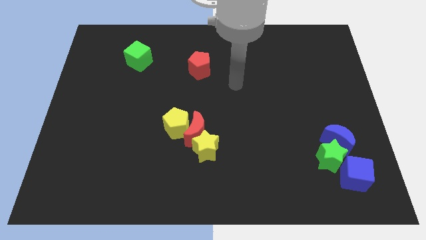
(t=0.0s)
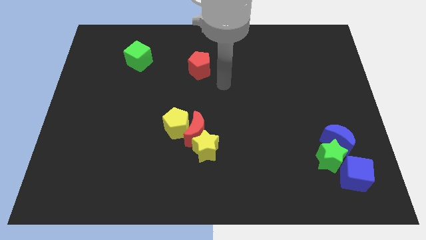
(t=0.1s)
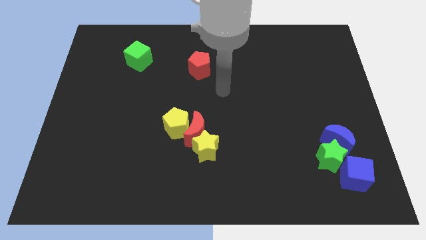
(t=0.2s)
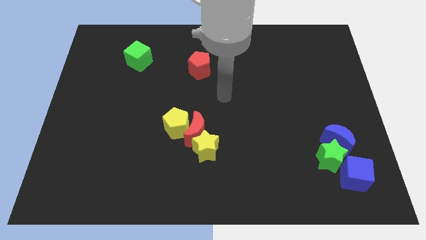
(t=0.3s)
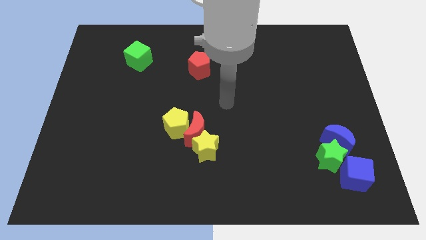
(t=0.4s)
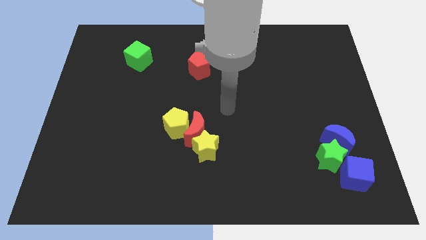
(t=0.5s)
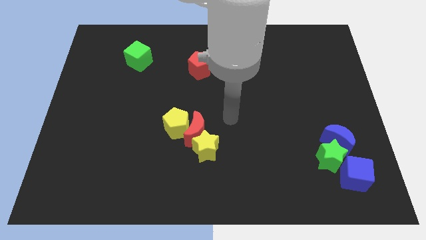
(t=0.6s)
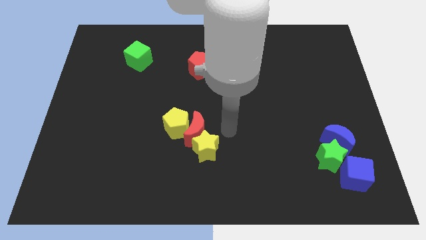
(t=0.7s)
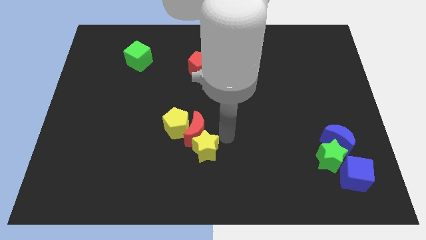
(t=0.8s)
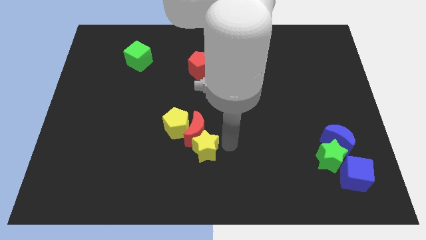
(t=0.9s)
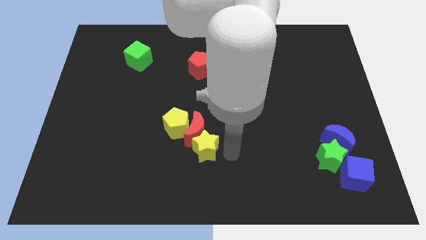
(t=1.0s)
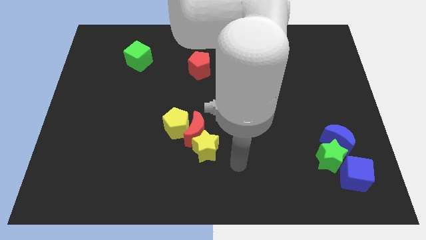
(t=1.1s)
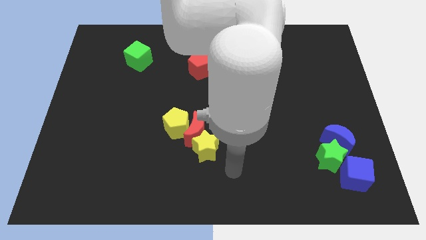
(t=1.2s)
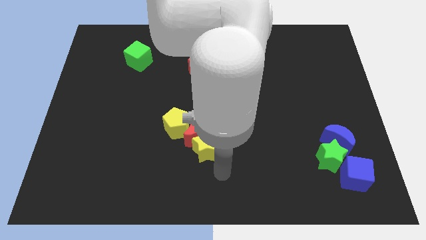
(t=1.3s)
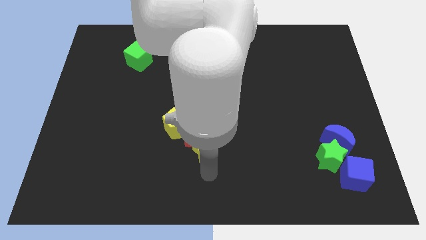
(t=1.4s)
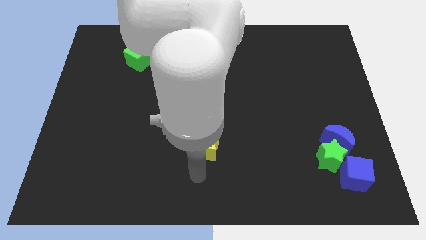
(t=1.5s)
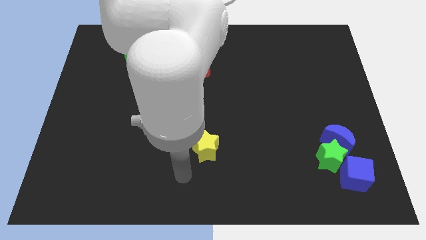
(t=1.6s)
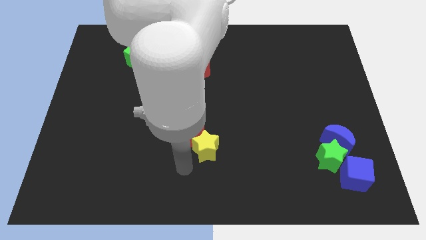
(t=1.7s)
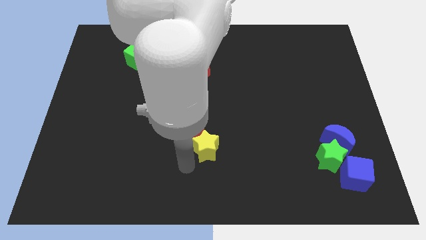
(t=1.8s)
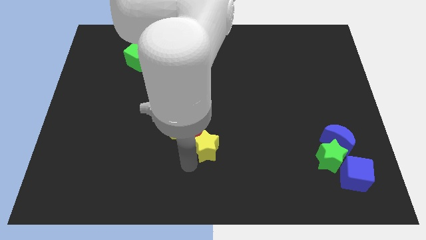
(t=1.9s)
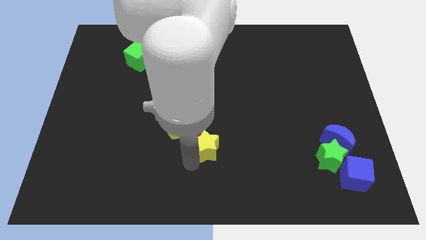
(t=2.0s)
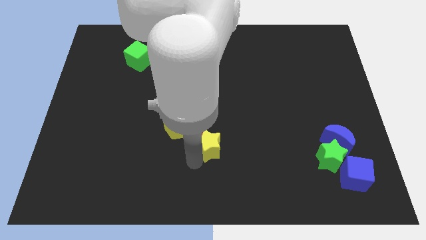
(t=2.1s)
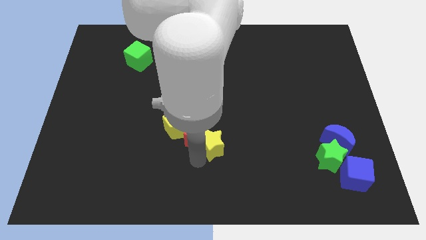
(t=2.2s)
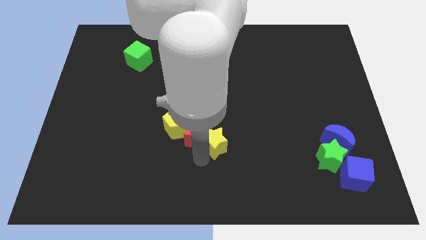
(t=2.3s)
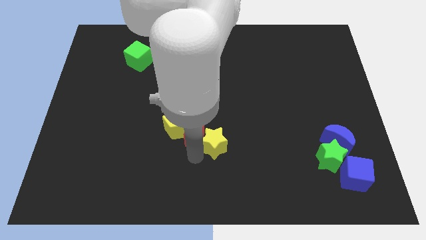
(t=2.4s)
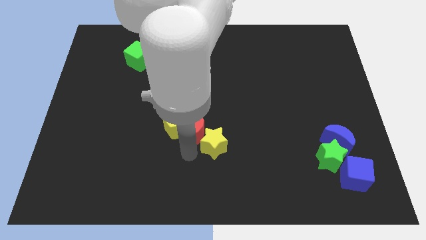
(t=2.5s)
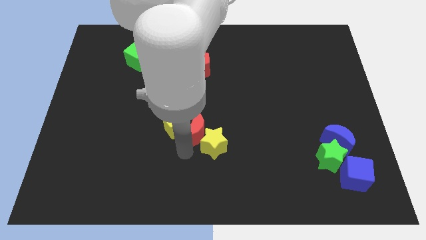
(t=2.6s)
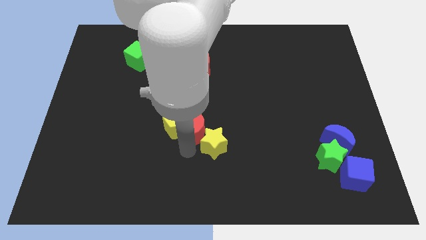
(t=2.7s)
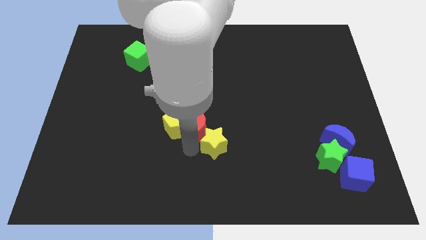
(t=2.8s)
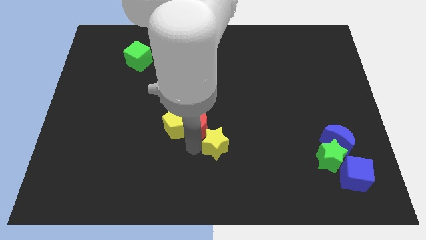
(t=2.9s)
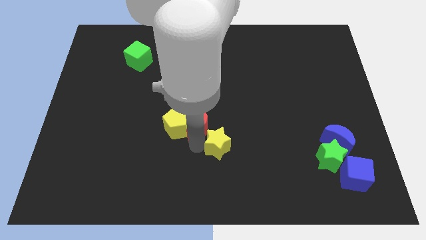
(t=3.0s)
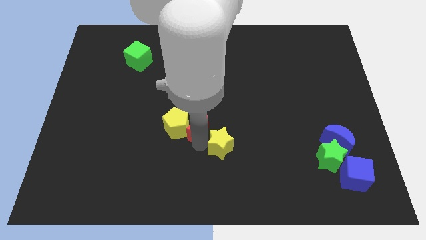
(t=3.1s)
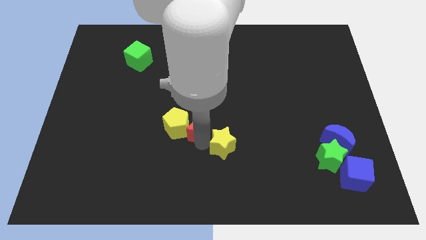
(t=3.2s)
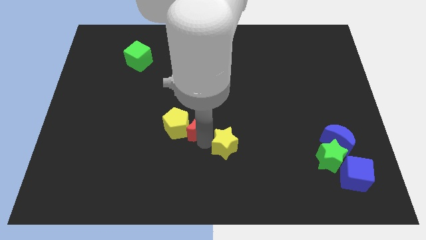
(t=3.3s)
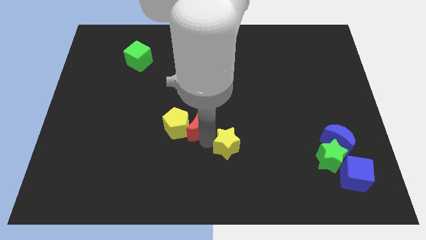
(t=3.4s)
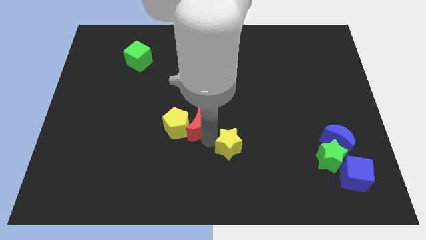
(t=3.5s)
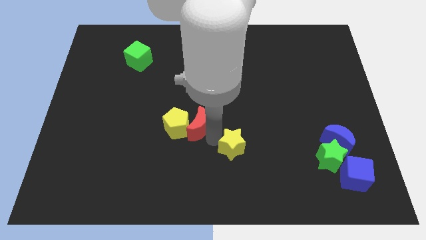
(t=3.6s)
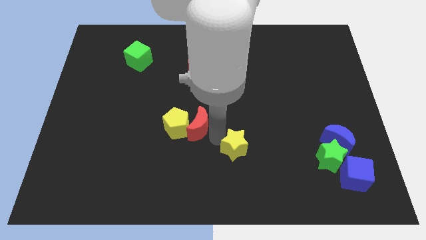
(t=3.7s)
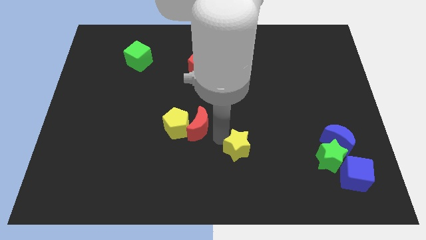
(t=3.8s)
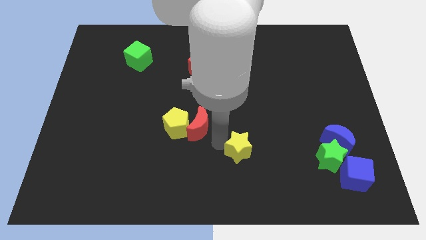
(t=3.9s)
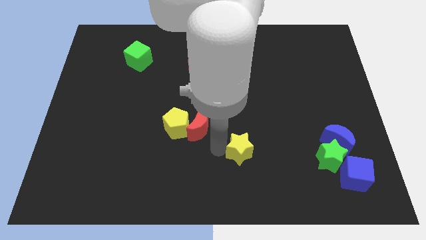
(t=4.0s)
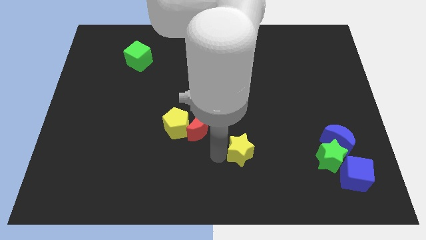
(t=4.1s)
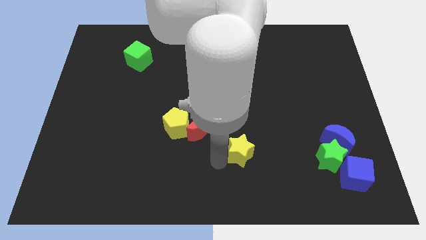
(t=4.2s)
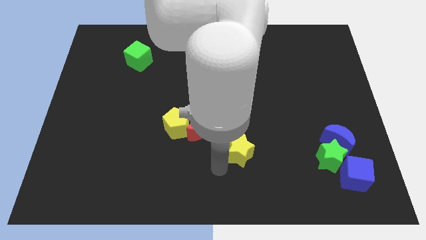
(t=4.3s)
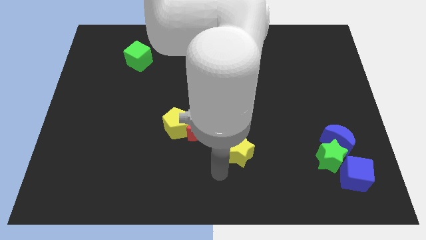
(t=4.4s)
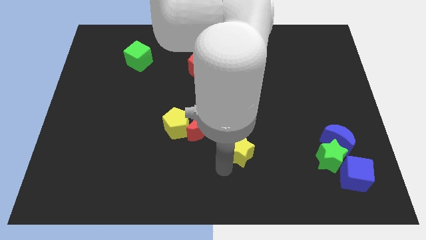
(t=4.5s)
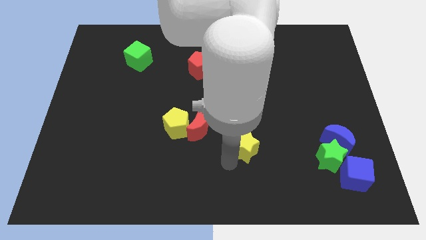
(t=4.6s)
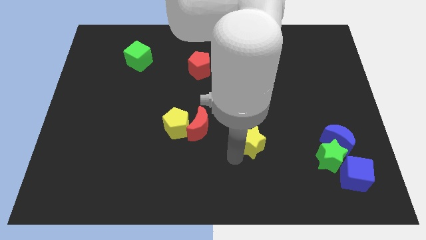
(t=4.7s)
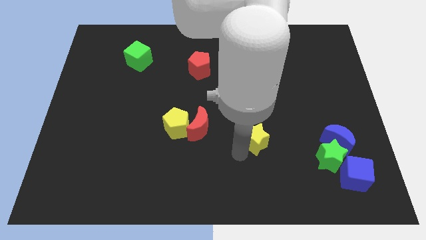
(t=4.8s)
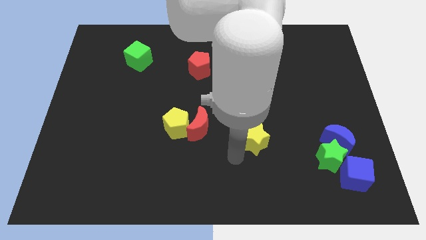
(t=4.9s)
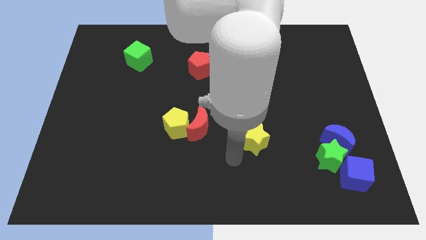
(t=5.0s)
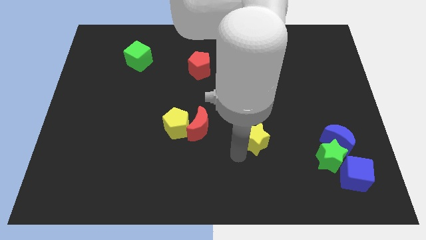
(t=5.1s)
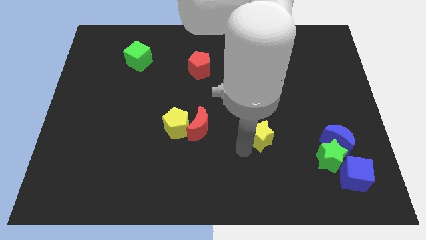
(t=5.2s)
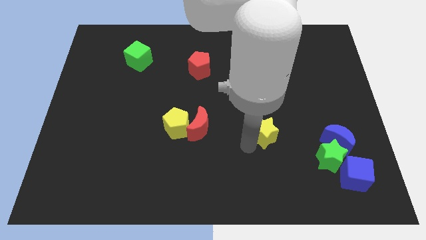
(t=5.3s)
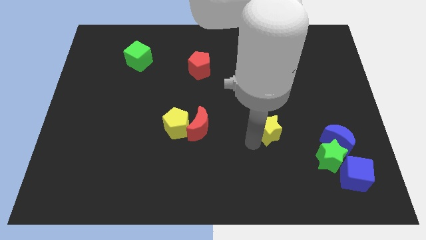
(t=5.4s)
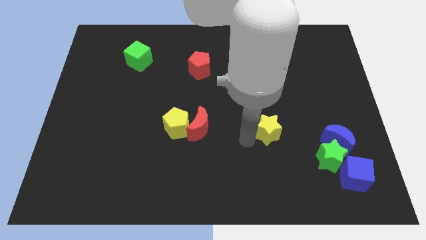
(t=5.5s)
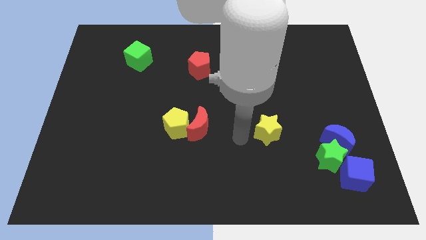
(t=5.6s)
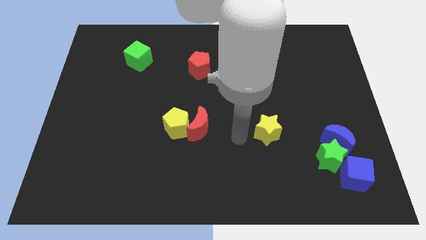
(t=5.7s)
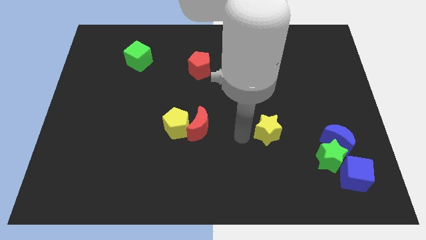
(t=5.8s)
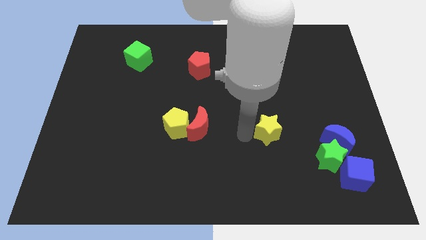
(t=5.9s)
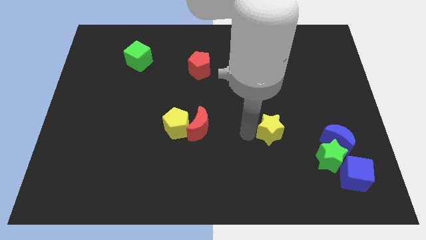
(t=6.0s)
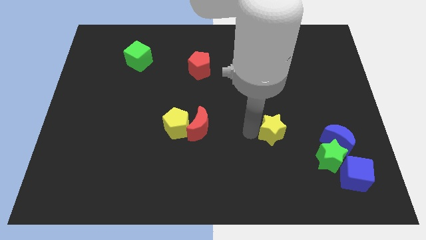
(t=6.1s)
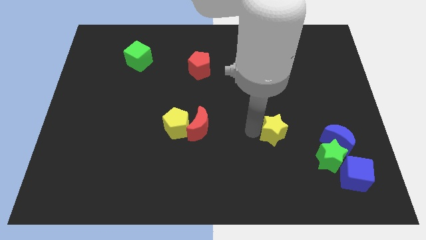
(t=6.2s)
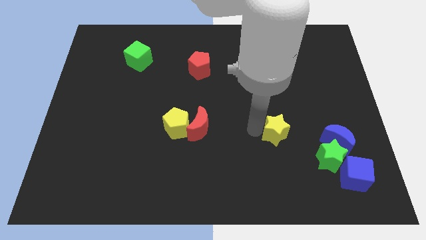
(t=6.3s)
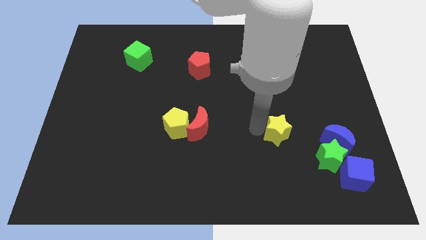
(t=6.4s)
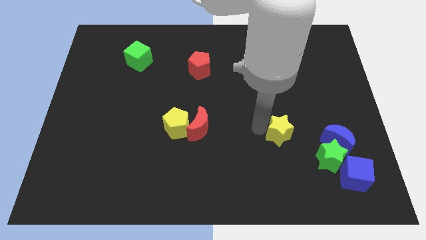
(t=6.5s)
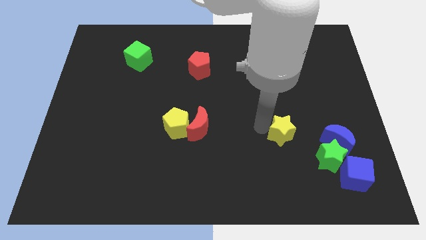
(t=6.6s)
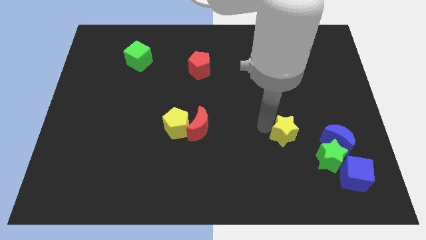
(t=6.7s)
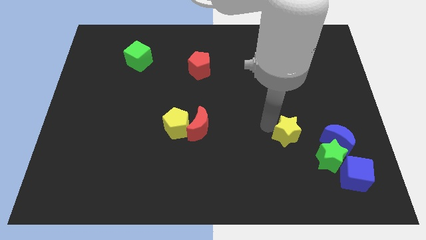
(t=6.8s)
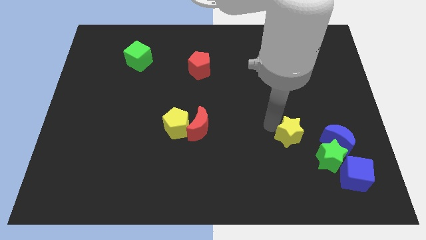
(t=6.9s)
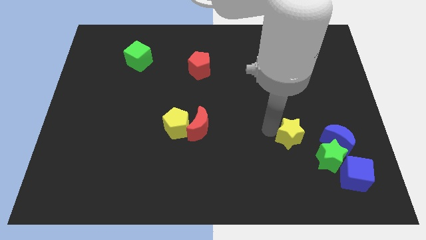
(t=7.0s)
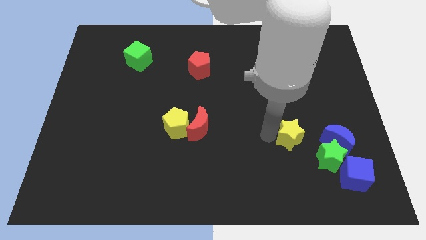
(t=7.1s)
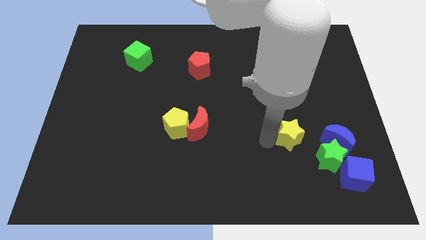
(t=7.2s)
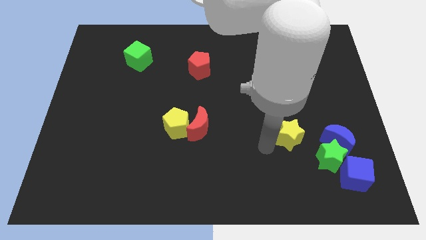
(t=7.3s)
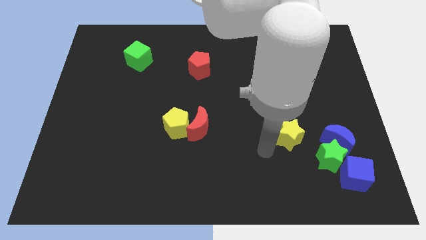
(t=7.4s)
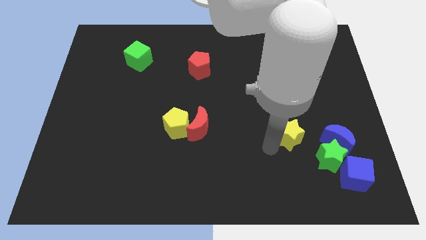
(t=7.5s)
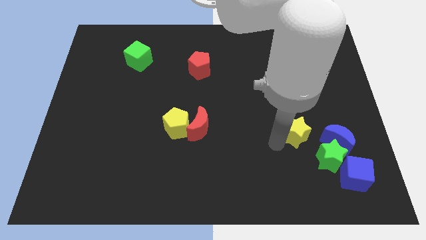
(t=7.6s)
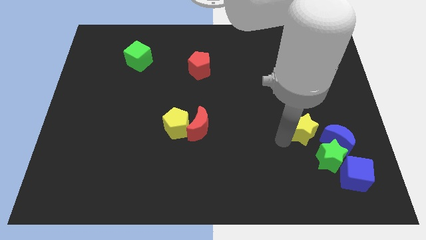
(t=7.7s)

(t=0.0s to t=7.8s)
slide the yellow star diagonally up and to the left of the blue moon
